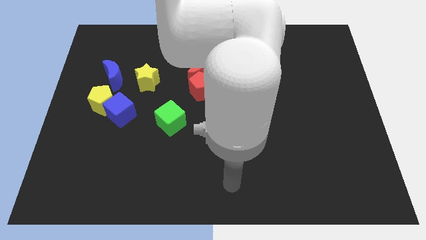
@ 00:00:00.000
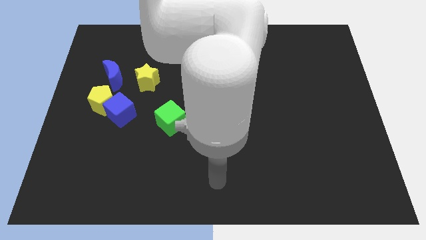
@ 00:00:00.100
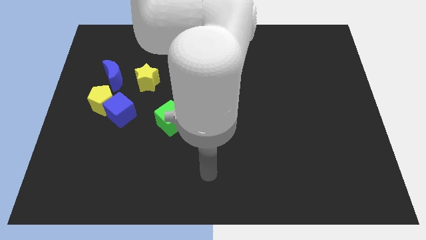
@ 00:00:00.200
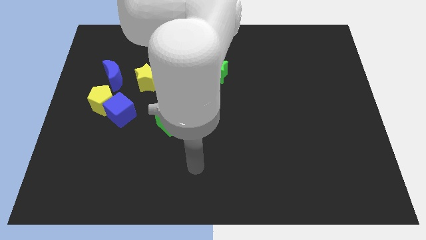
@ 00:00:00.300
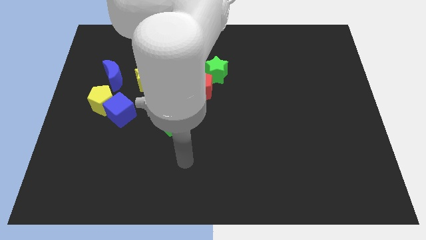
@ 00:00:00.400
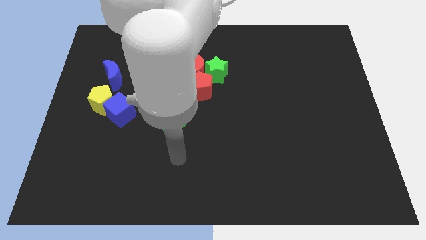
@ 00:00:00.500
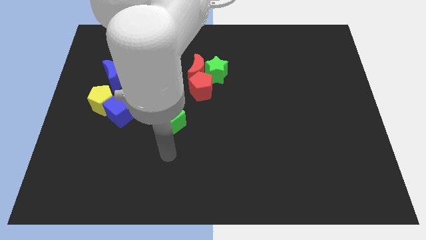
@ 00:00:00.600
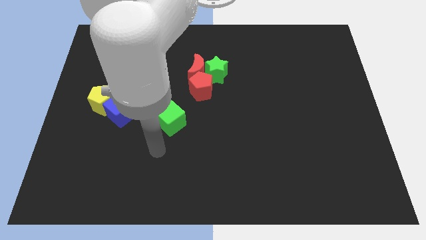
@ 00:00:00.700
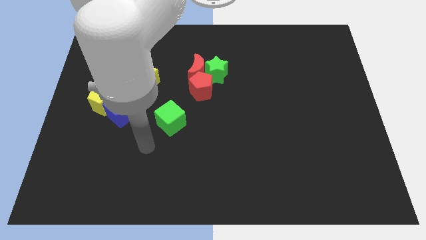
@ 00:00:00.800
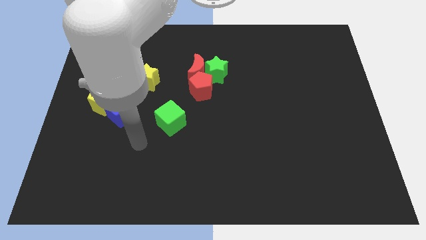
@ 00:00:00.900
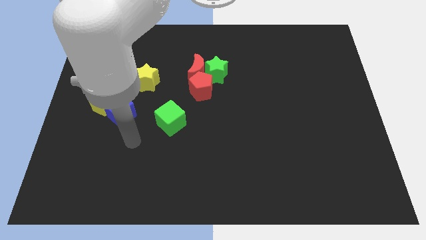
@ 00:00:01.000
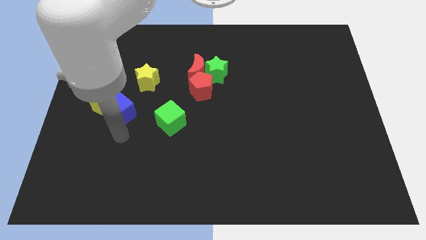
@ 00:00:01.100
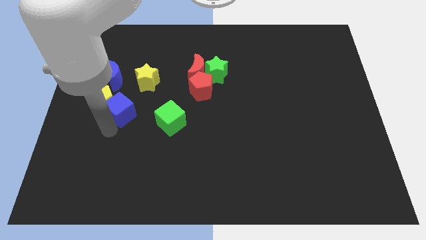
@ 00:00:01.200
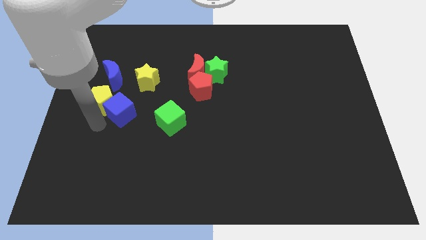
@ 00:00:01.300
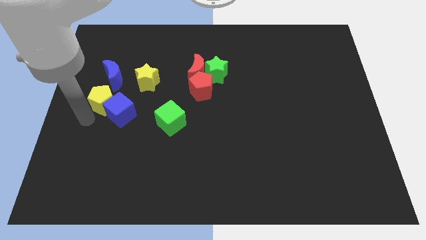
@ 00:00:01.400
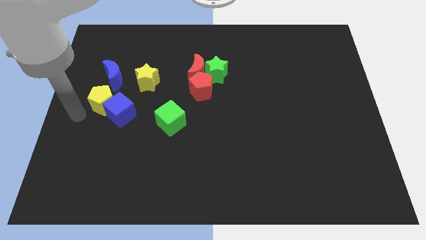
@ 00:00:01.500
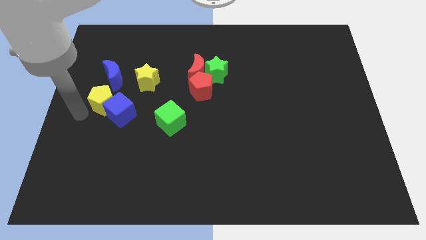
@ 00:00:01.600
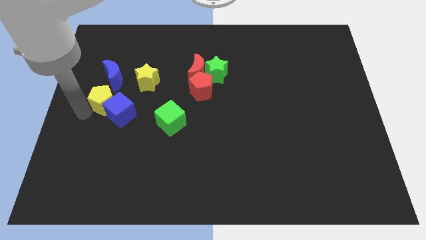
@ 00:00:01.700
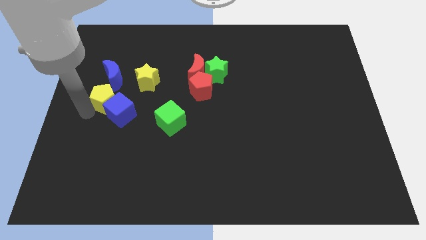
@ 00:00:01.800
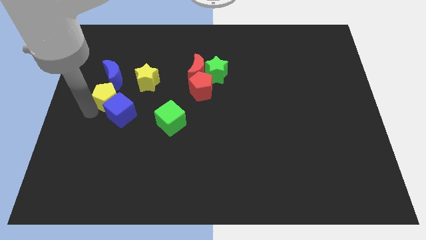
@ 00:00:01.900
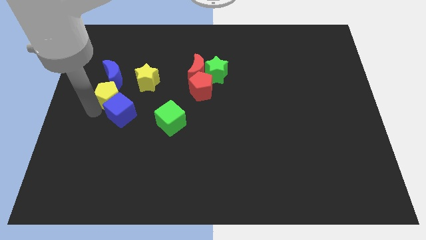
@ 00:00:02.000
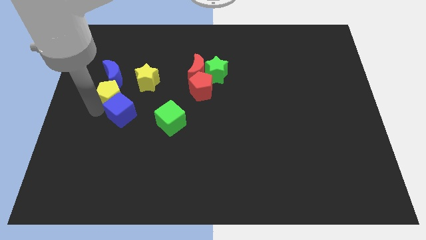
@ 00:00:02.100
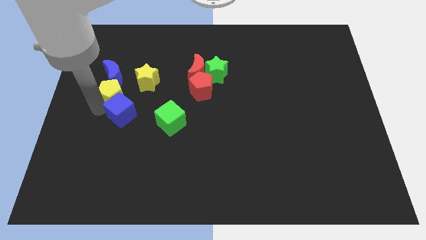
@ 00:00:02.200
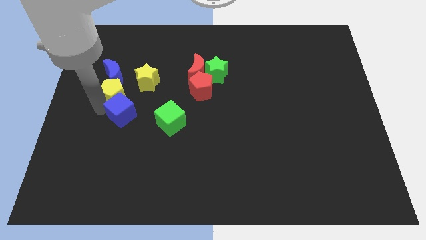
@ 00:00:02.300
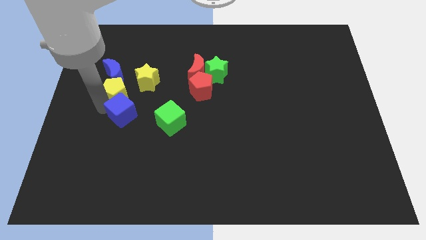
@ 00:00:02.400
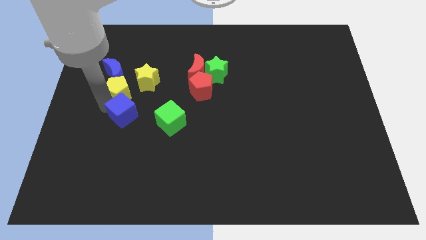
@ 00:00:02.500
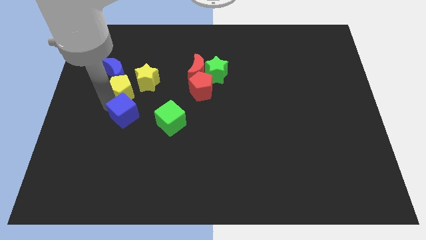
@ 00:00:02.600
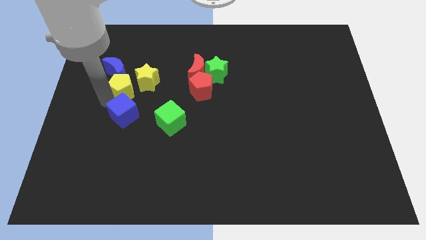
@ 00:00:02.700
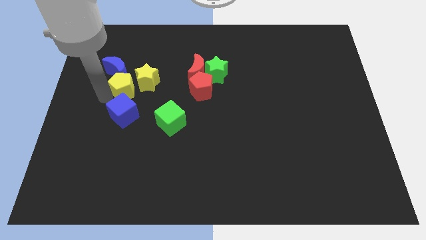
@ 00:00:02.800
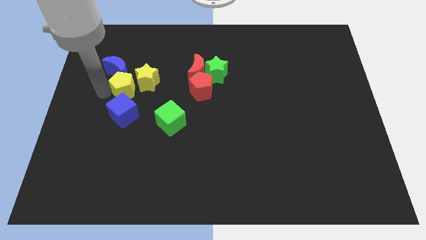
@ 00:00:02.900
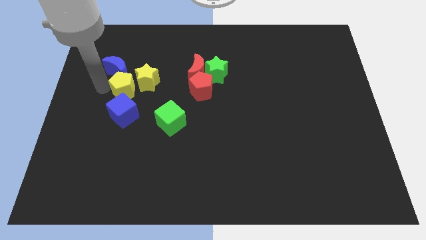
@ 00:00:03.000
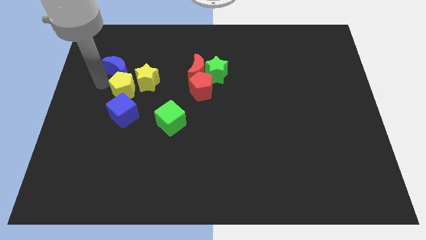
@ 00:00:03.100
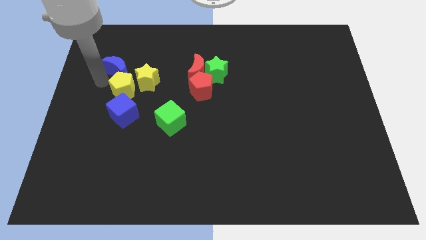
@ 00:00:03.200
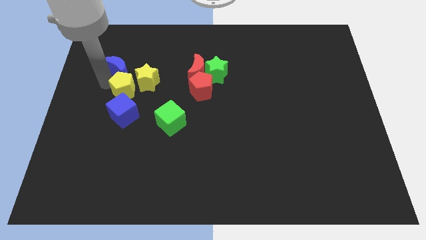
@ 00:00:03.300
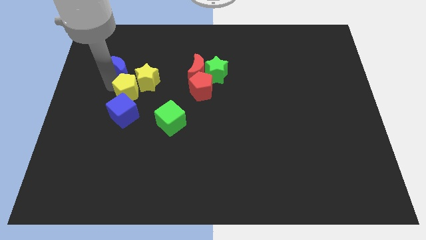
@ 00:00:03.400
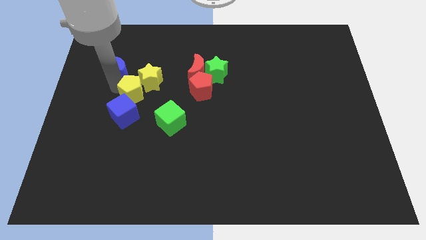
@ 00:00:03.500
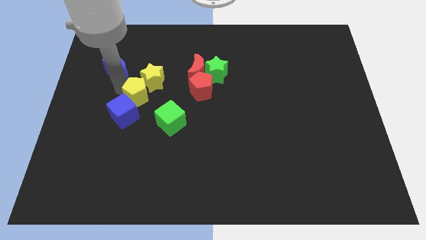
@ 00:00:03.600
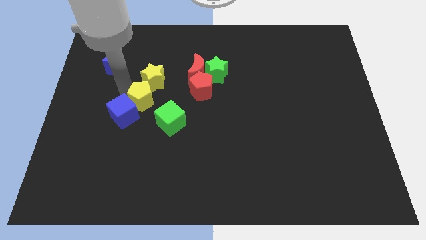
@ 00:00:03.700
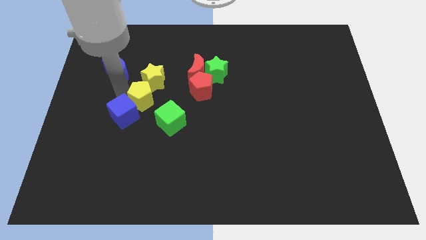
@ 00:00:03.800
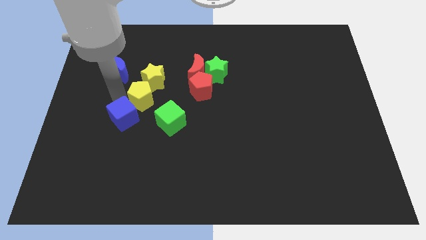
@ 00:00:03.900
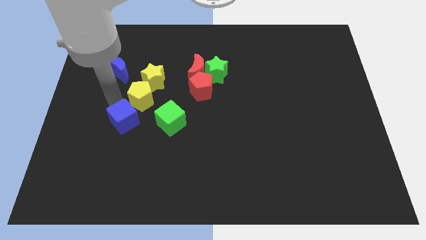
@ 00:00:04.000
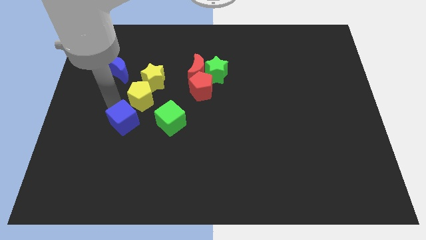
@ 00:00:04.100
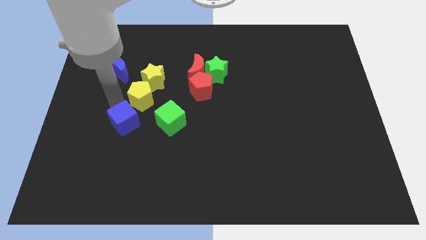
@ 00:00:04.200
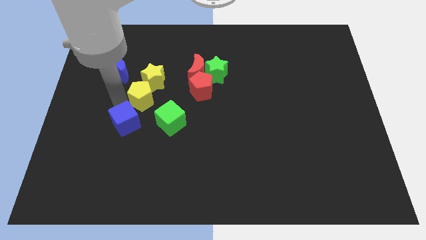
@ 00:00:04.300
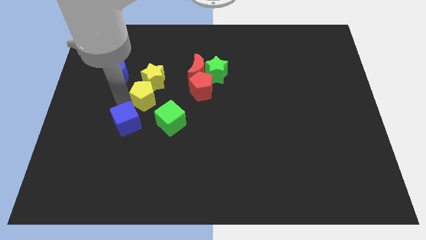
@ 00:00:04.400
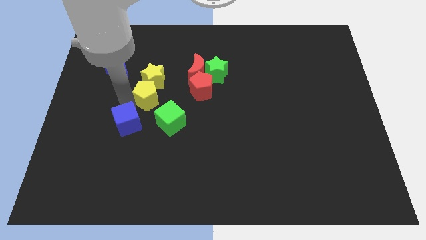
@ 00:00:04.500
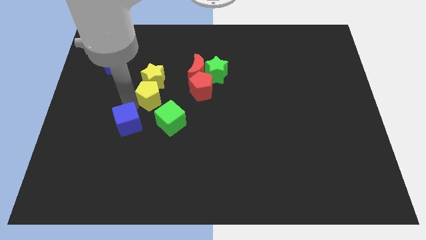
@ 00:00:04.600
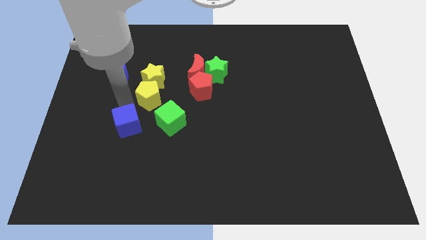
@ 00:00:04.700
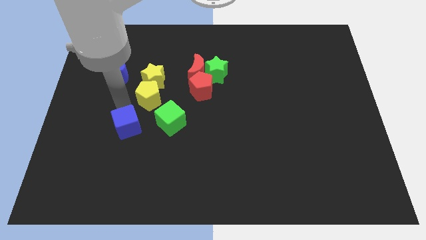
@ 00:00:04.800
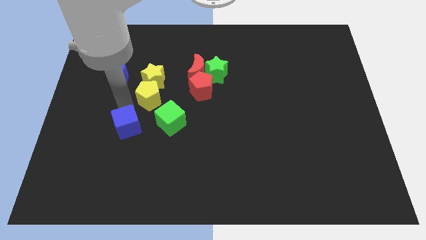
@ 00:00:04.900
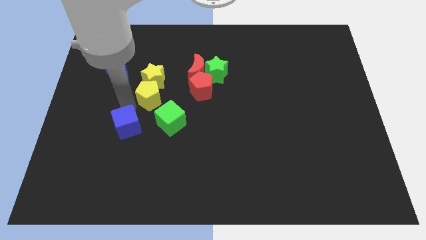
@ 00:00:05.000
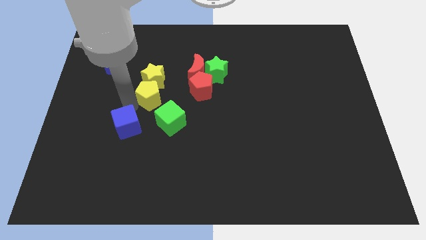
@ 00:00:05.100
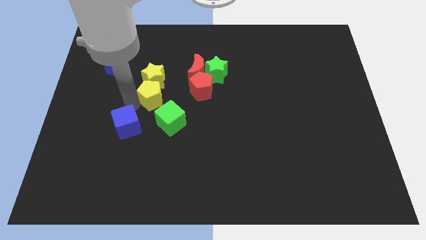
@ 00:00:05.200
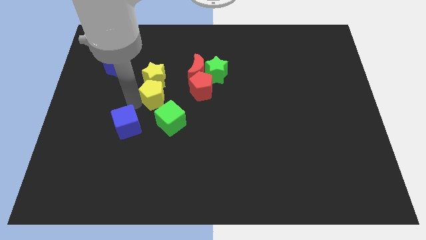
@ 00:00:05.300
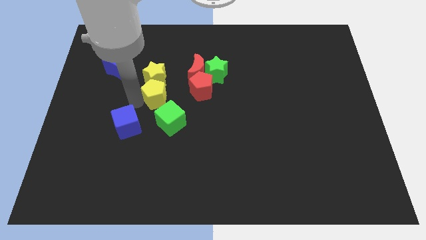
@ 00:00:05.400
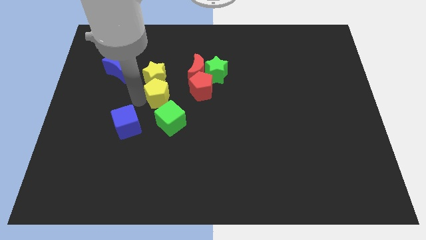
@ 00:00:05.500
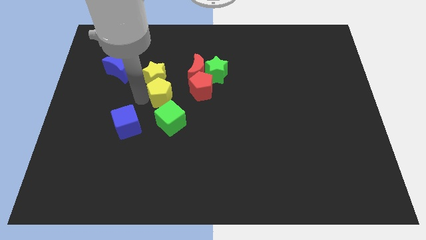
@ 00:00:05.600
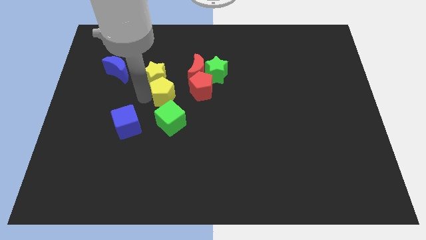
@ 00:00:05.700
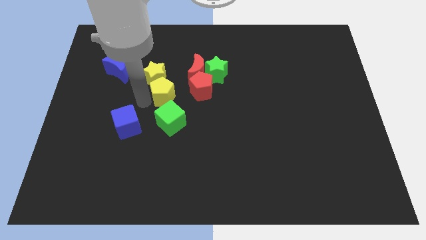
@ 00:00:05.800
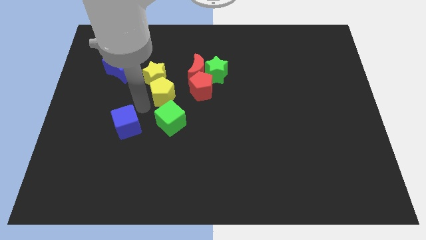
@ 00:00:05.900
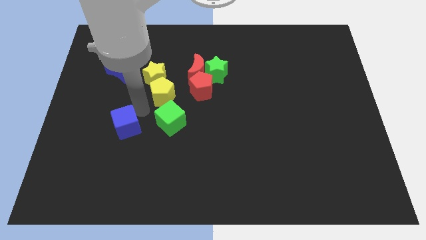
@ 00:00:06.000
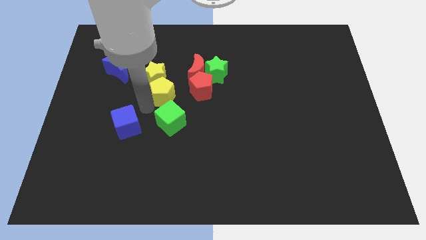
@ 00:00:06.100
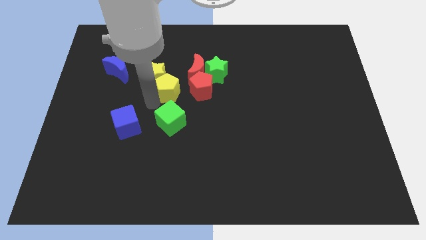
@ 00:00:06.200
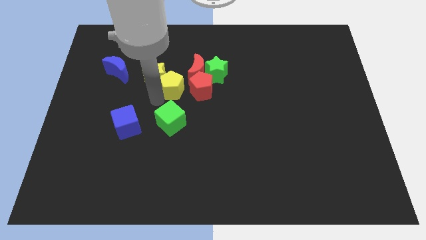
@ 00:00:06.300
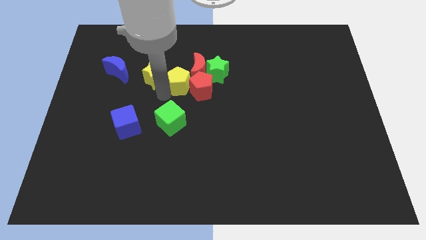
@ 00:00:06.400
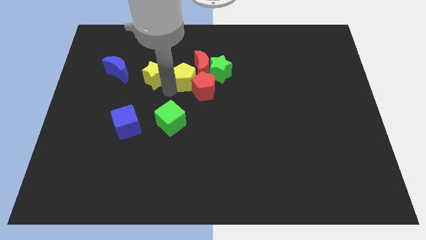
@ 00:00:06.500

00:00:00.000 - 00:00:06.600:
put the yellow pentagon close to the red moon
